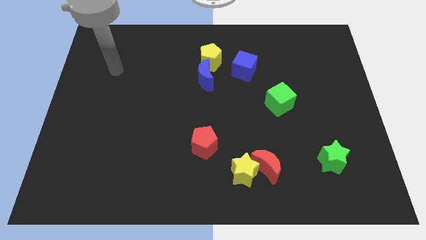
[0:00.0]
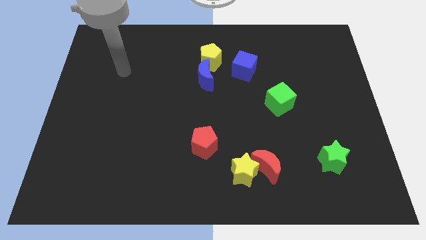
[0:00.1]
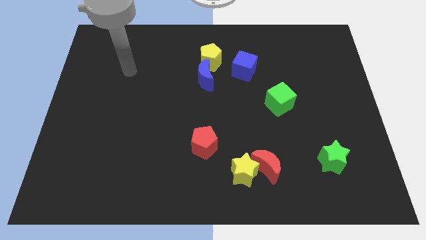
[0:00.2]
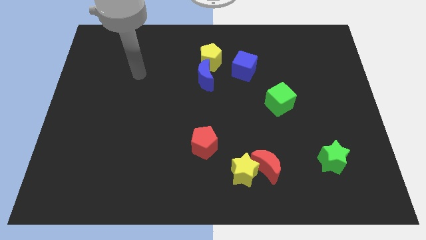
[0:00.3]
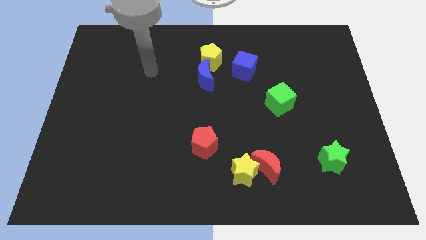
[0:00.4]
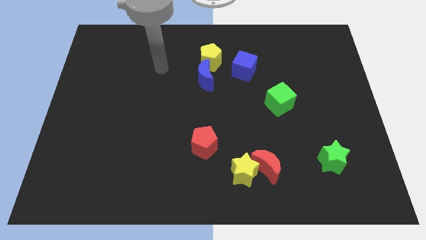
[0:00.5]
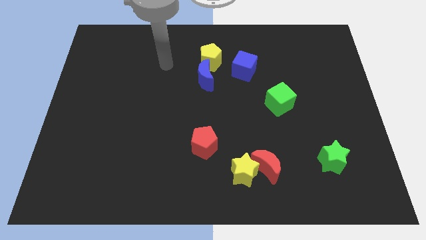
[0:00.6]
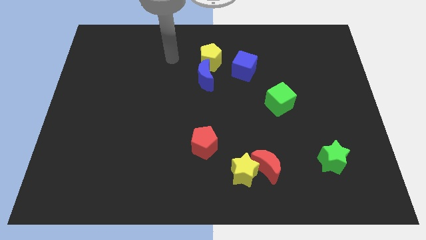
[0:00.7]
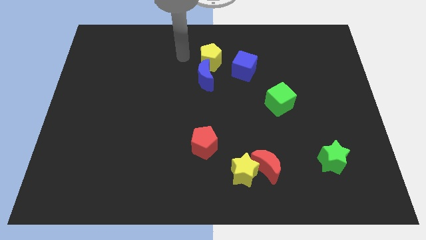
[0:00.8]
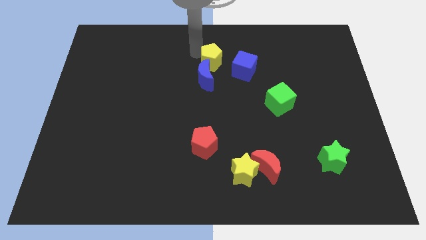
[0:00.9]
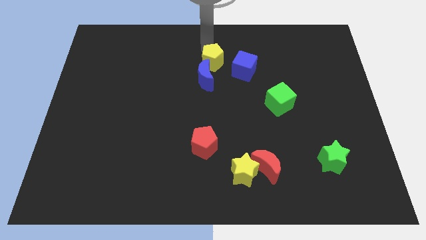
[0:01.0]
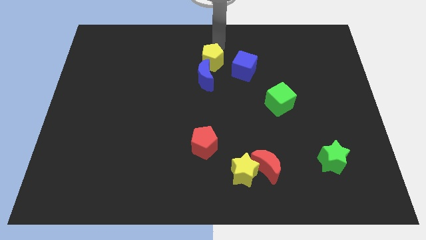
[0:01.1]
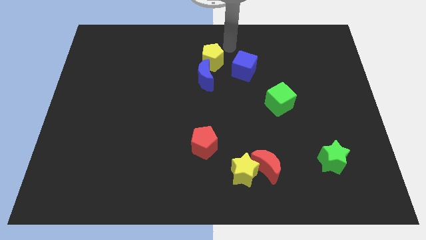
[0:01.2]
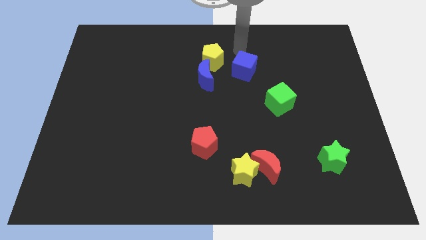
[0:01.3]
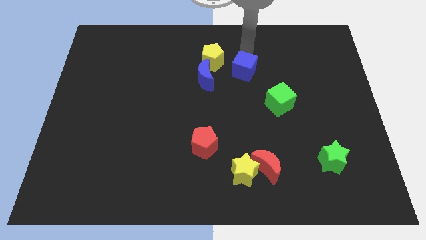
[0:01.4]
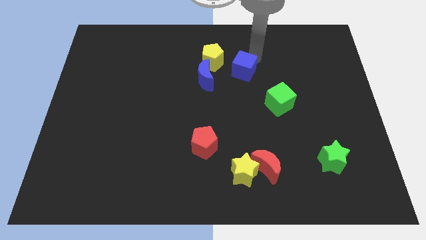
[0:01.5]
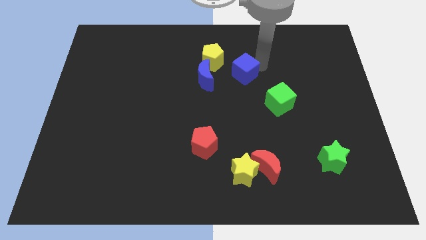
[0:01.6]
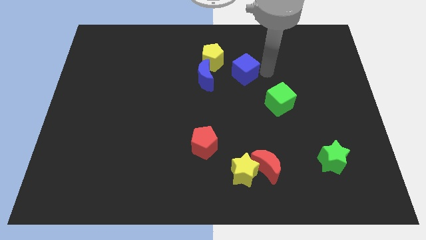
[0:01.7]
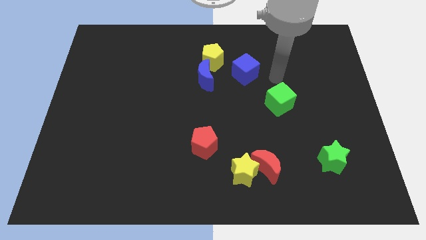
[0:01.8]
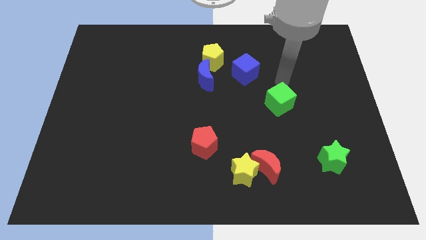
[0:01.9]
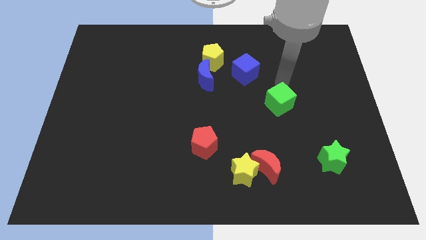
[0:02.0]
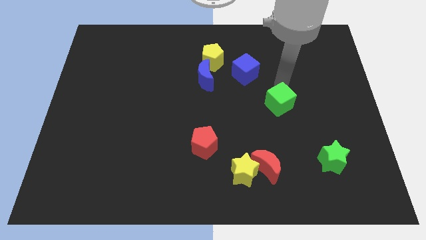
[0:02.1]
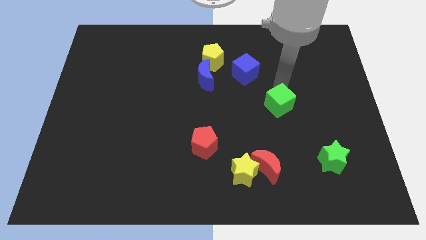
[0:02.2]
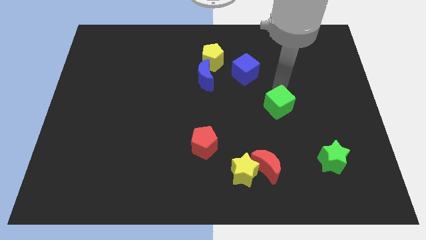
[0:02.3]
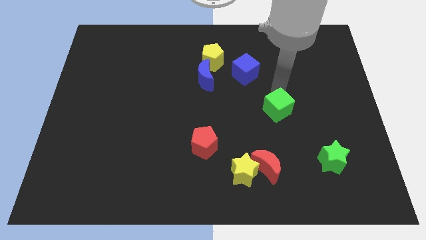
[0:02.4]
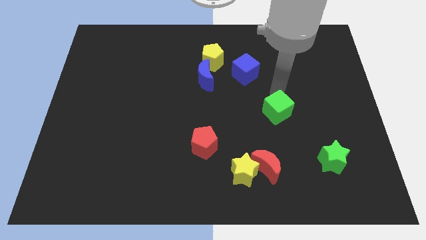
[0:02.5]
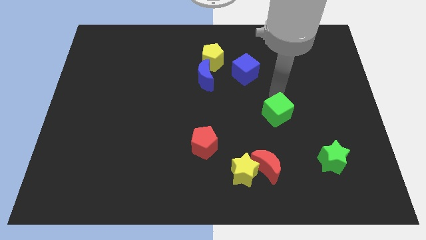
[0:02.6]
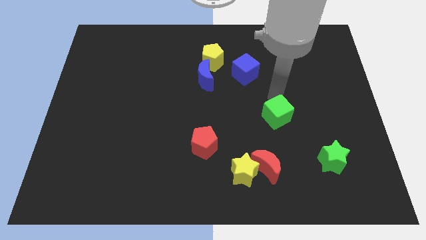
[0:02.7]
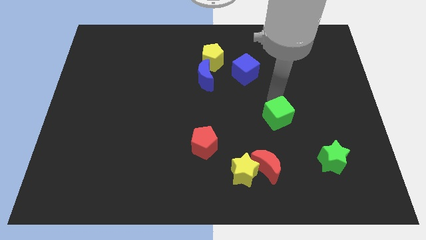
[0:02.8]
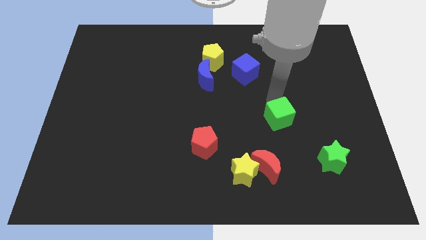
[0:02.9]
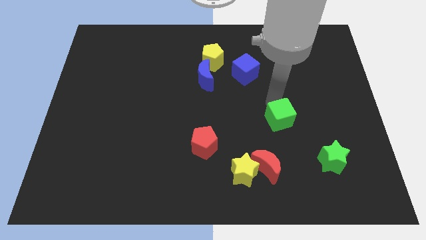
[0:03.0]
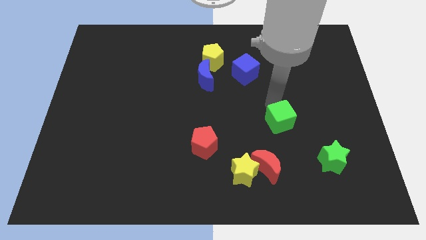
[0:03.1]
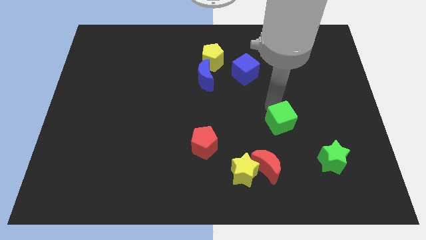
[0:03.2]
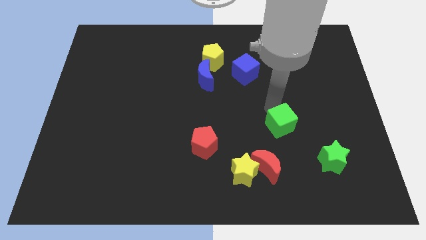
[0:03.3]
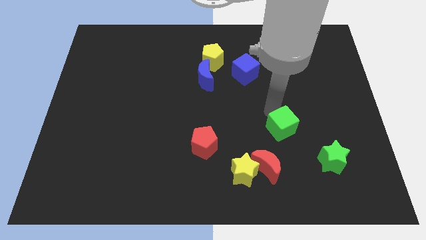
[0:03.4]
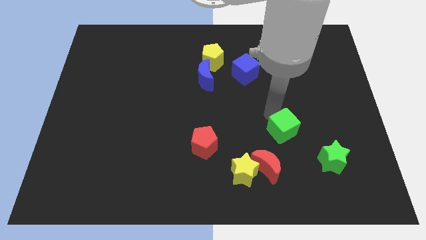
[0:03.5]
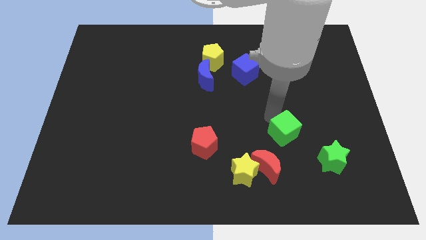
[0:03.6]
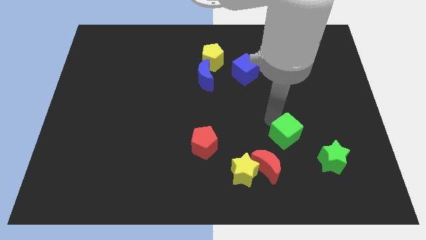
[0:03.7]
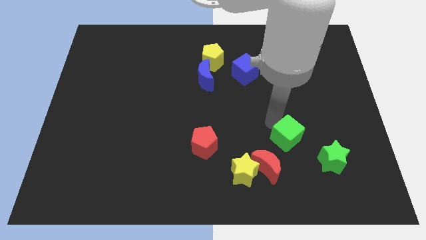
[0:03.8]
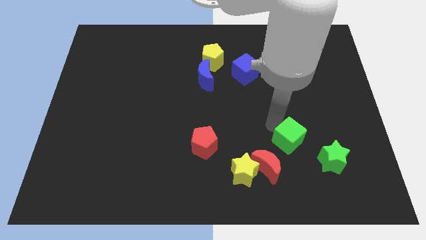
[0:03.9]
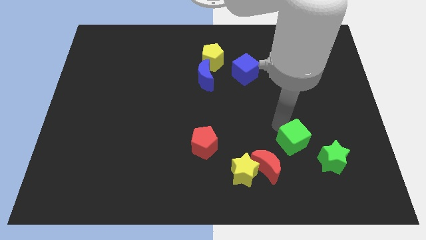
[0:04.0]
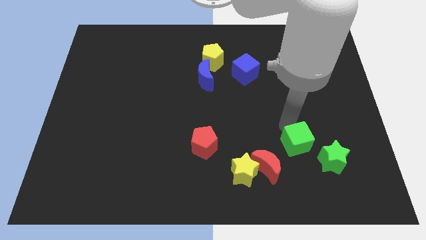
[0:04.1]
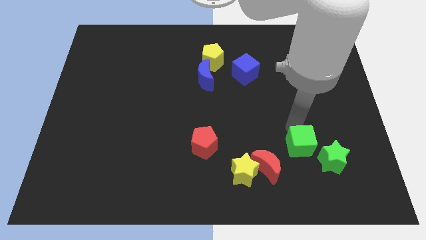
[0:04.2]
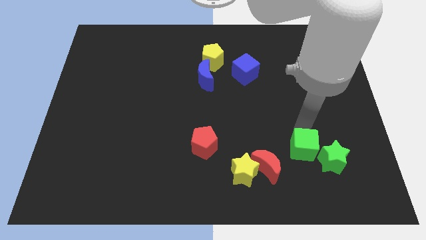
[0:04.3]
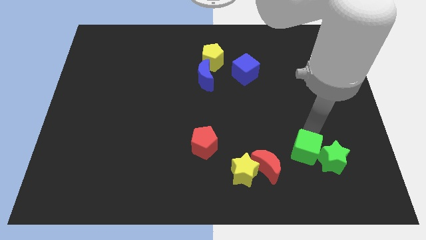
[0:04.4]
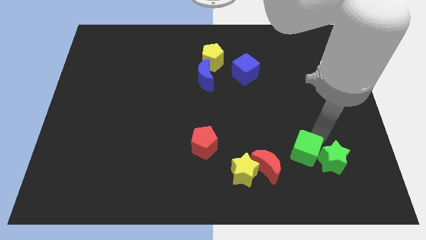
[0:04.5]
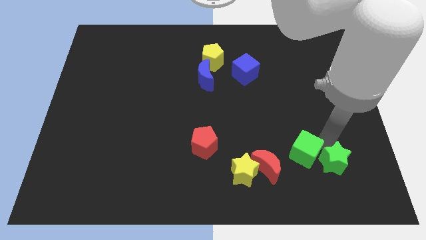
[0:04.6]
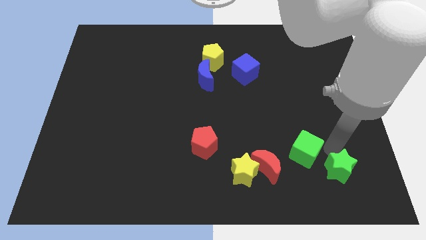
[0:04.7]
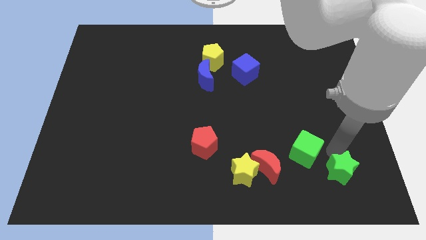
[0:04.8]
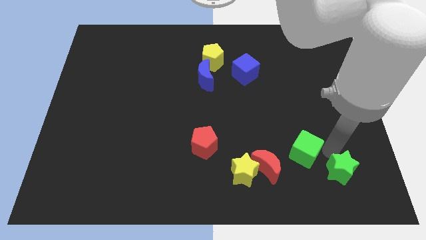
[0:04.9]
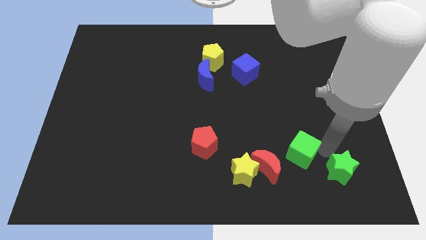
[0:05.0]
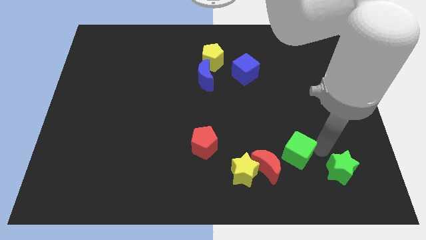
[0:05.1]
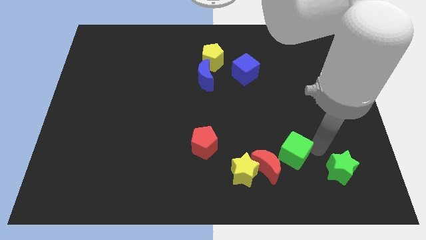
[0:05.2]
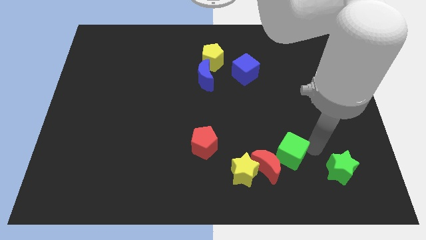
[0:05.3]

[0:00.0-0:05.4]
move the green cube to the top right side of the yellow star
